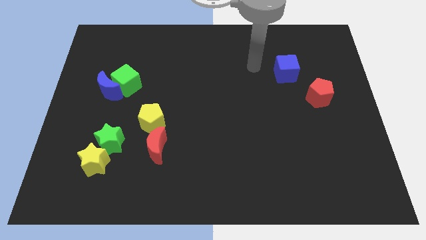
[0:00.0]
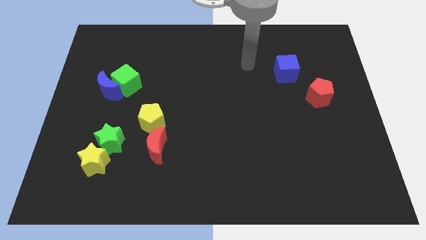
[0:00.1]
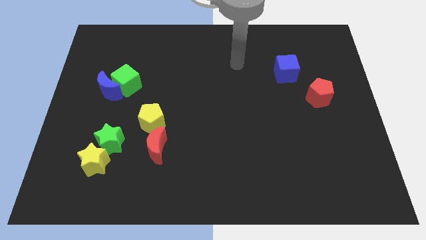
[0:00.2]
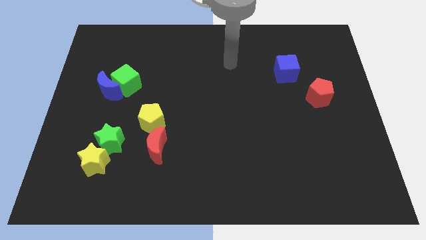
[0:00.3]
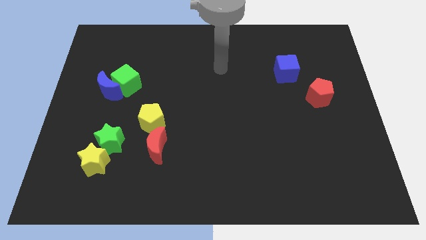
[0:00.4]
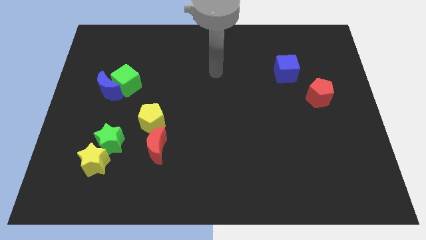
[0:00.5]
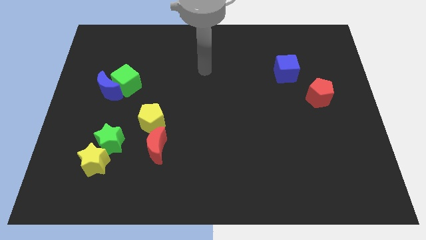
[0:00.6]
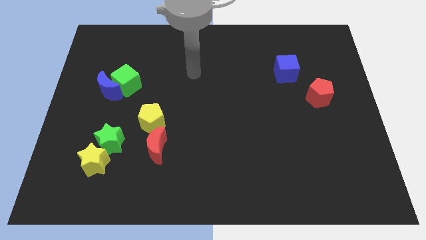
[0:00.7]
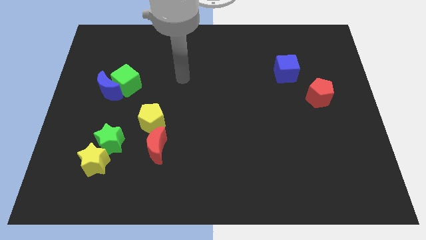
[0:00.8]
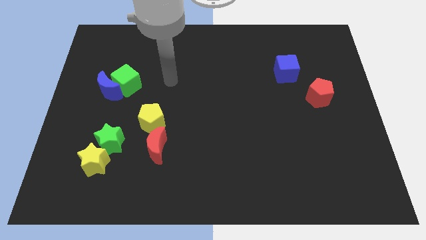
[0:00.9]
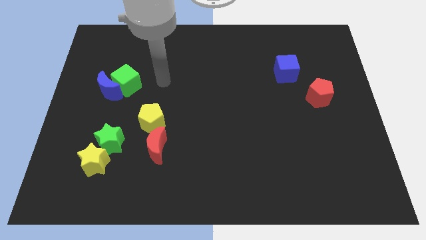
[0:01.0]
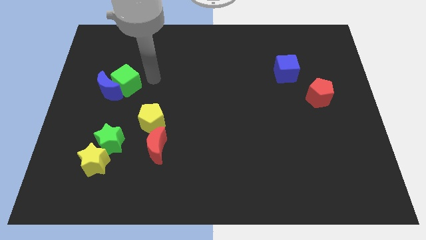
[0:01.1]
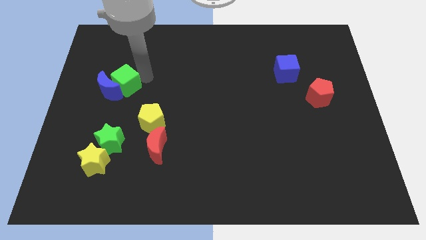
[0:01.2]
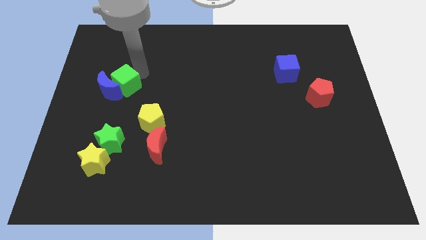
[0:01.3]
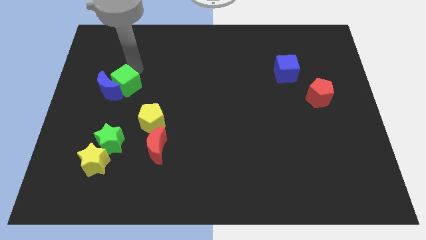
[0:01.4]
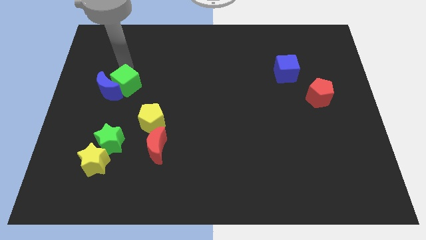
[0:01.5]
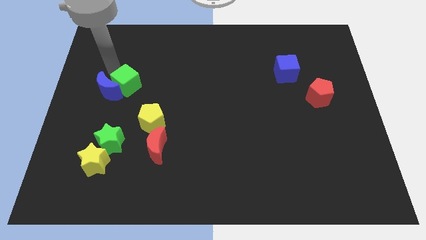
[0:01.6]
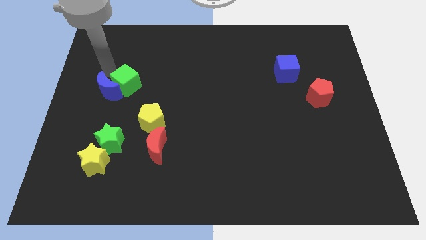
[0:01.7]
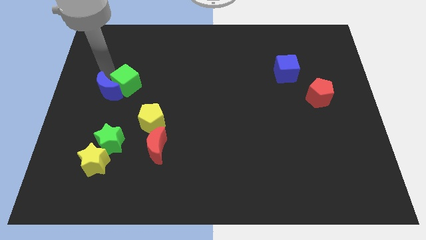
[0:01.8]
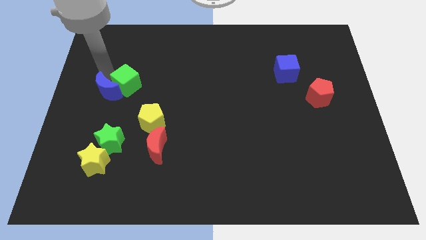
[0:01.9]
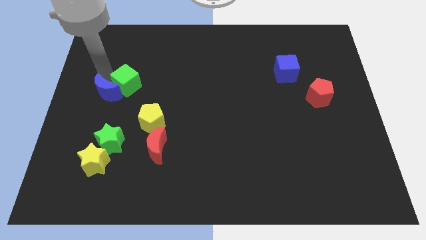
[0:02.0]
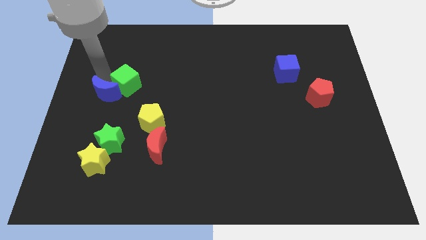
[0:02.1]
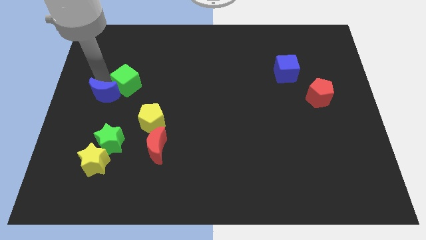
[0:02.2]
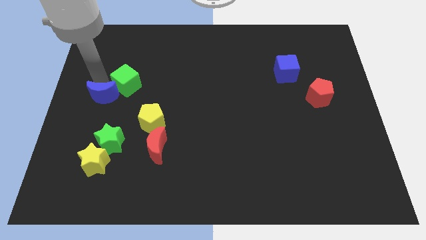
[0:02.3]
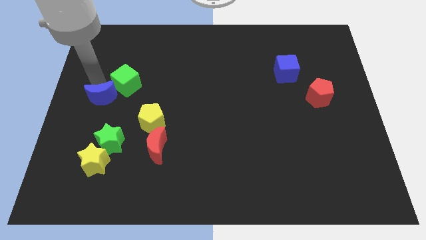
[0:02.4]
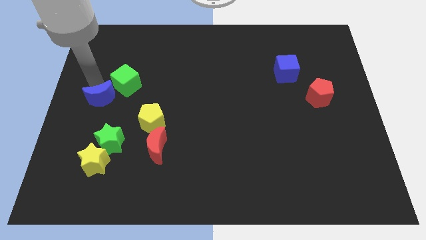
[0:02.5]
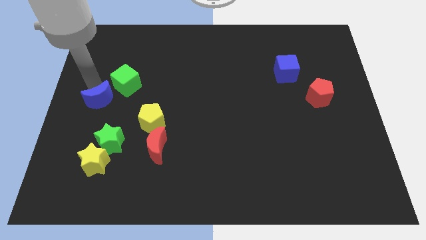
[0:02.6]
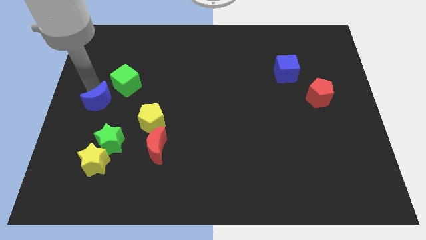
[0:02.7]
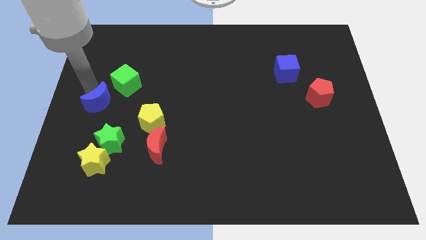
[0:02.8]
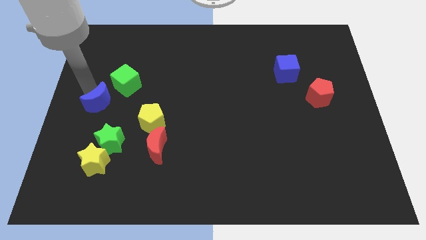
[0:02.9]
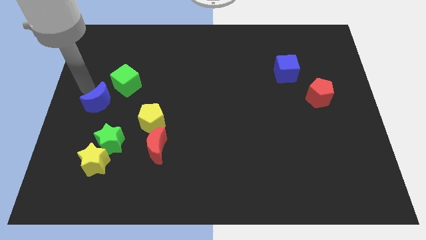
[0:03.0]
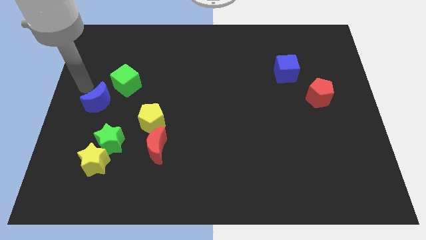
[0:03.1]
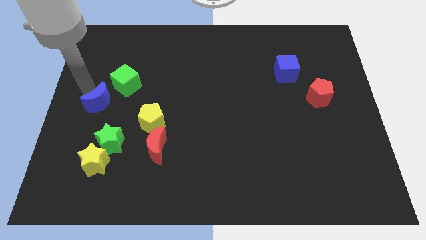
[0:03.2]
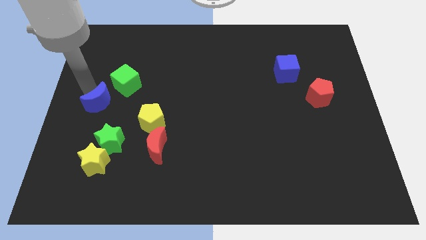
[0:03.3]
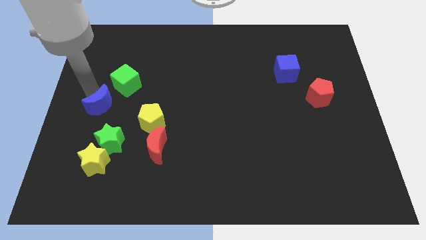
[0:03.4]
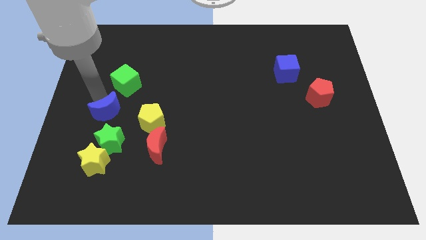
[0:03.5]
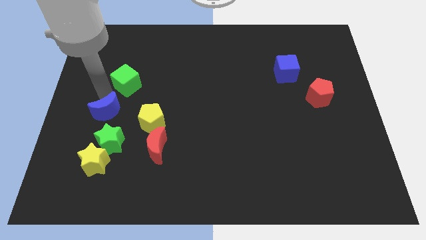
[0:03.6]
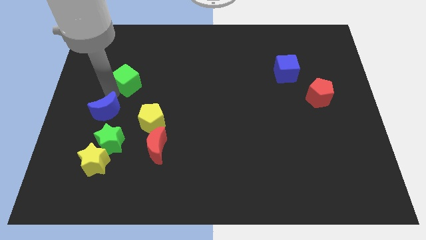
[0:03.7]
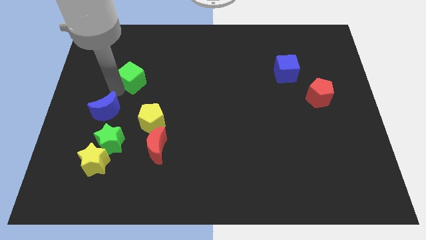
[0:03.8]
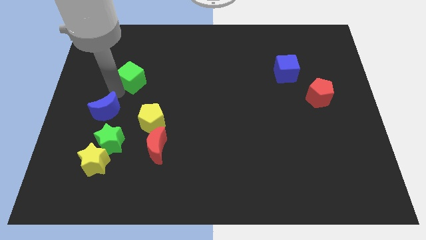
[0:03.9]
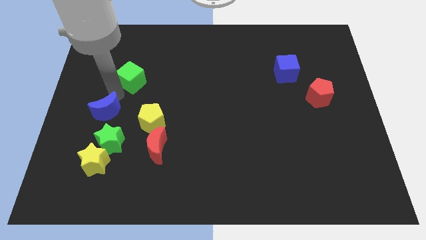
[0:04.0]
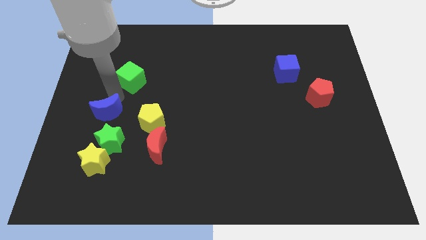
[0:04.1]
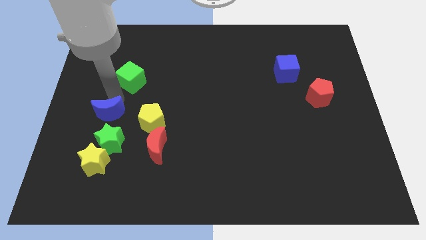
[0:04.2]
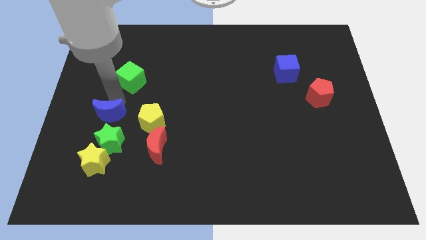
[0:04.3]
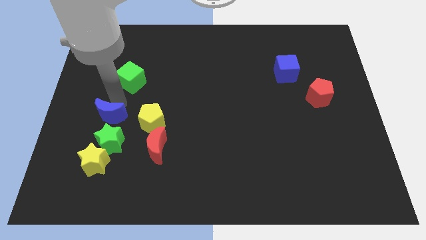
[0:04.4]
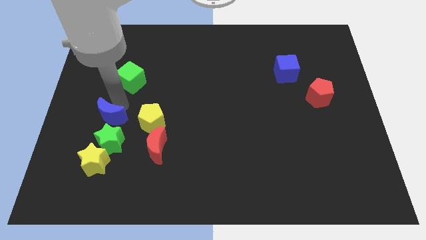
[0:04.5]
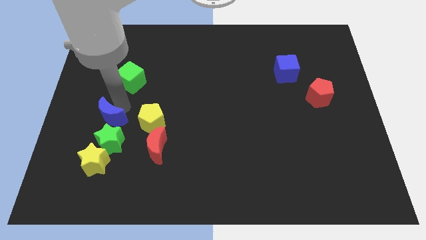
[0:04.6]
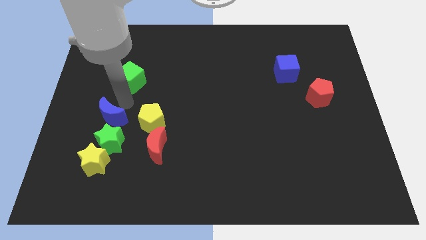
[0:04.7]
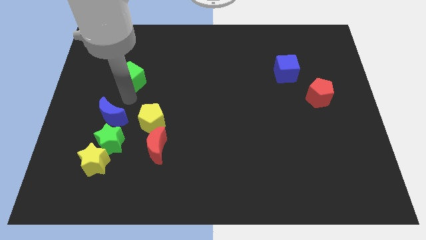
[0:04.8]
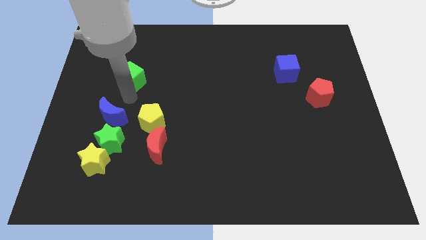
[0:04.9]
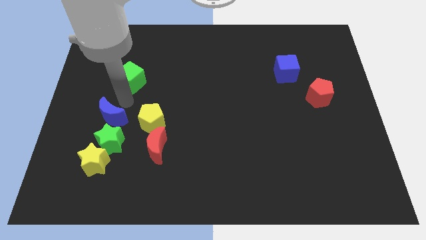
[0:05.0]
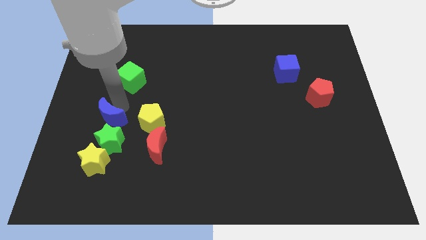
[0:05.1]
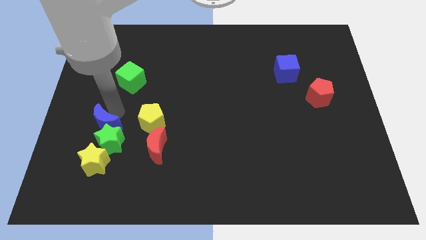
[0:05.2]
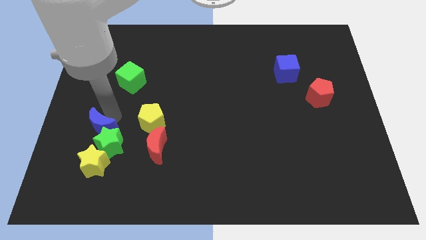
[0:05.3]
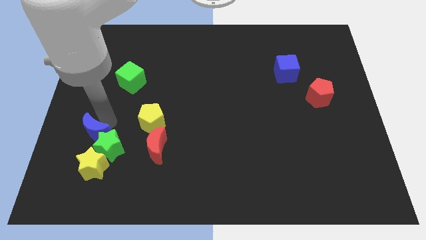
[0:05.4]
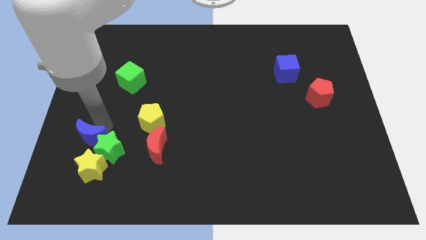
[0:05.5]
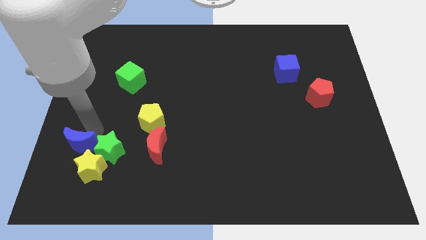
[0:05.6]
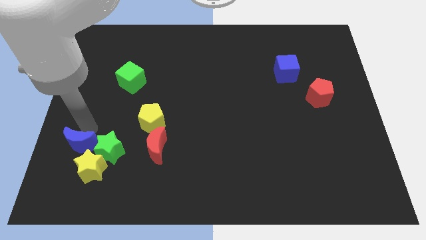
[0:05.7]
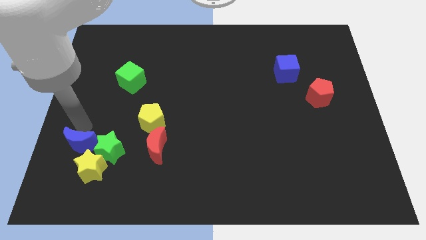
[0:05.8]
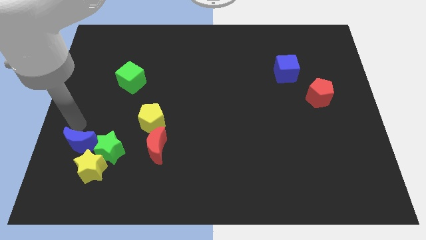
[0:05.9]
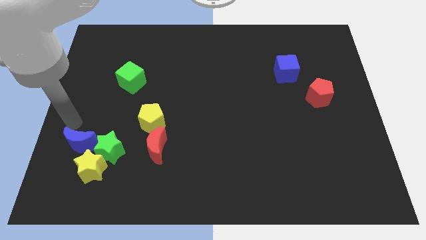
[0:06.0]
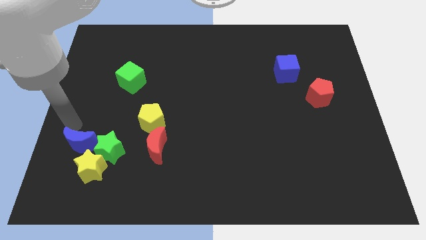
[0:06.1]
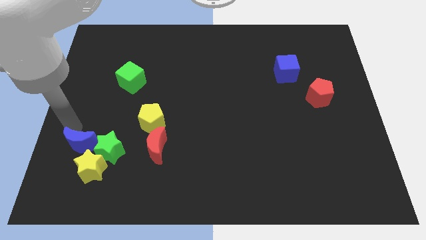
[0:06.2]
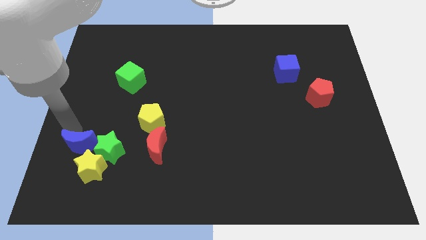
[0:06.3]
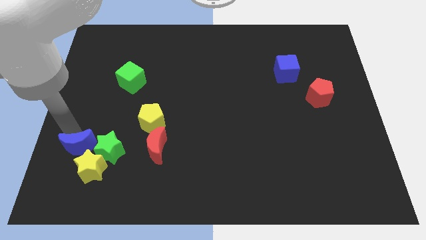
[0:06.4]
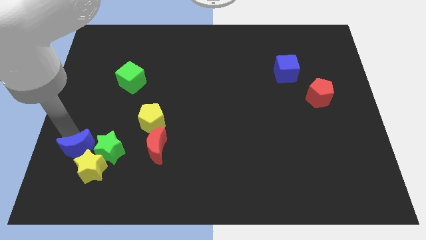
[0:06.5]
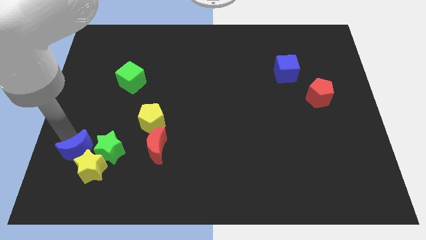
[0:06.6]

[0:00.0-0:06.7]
push the blue moon next to the yellow star
